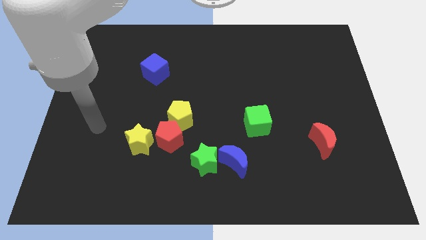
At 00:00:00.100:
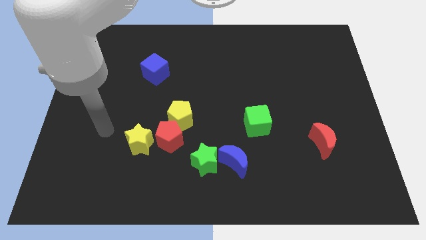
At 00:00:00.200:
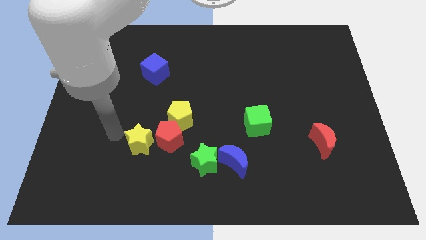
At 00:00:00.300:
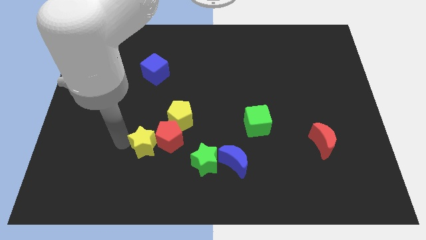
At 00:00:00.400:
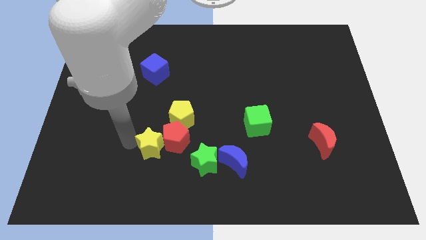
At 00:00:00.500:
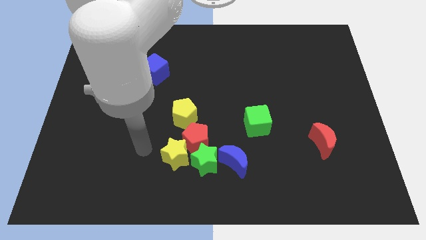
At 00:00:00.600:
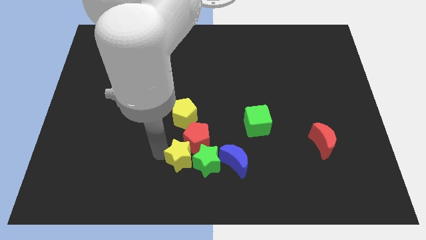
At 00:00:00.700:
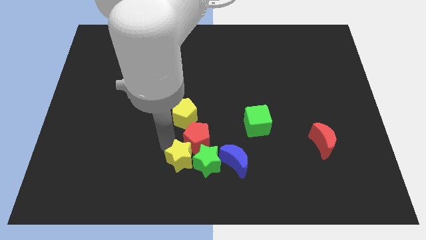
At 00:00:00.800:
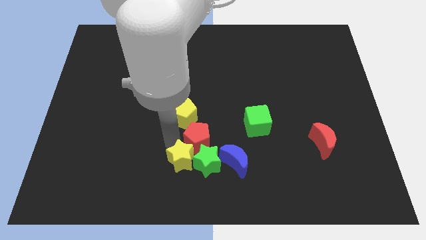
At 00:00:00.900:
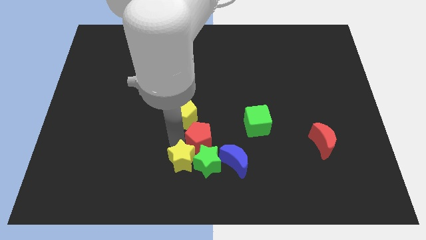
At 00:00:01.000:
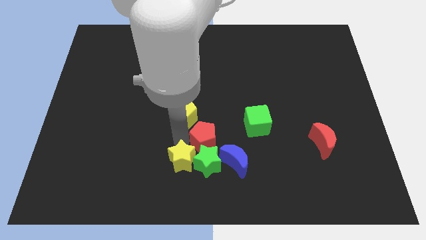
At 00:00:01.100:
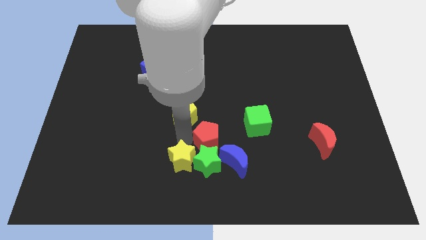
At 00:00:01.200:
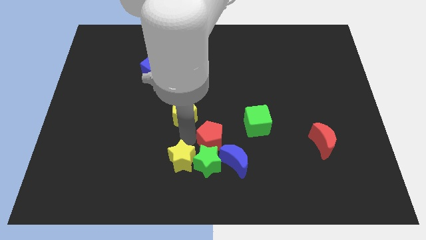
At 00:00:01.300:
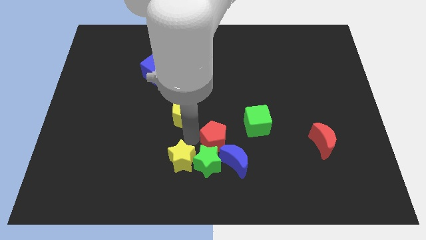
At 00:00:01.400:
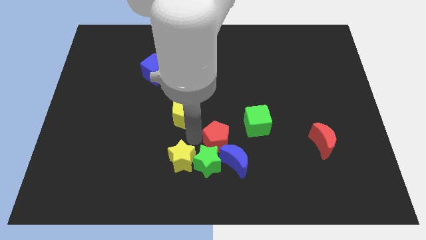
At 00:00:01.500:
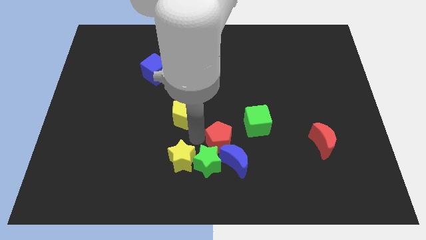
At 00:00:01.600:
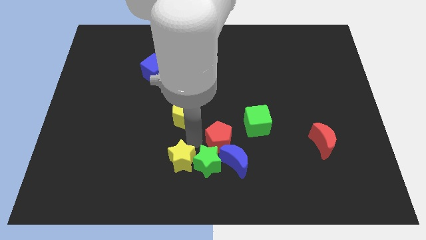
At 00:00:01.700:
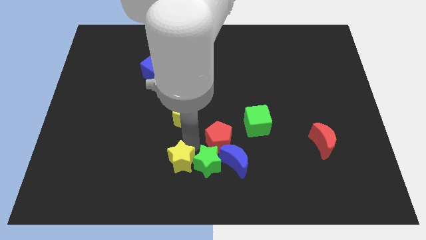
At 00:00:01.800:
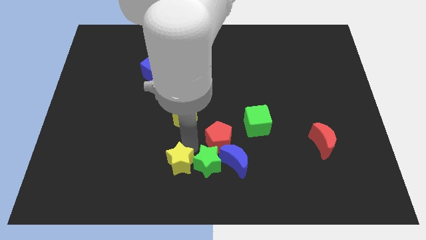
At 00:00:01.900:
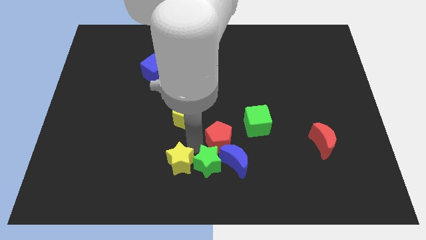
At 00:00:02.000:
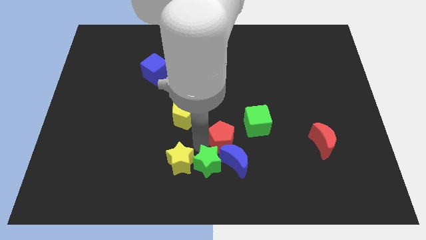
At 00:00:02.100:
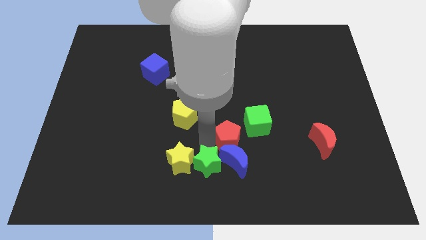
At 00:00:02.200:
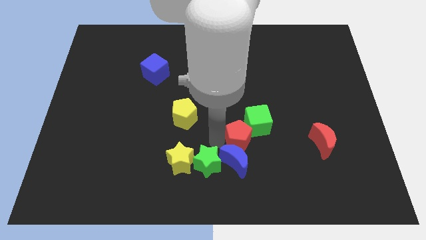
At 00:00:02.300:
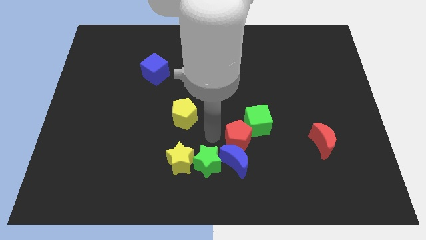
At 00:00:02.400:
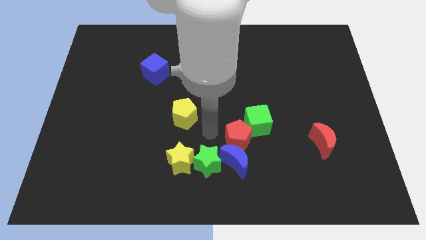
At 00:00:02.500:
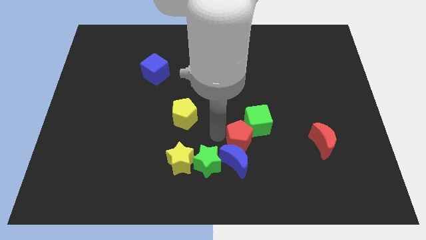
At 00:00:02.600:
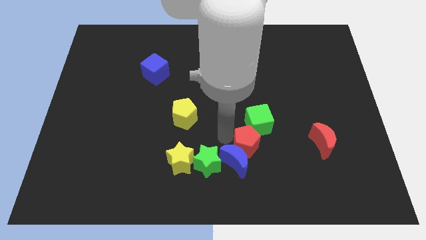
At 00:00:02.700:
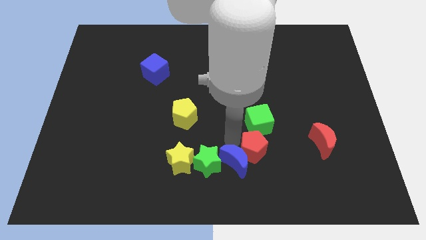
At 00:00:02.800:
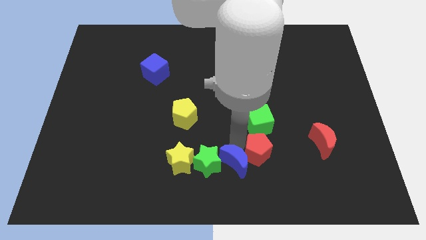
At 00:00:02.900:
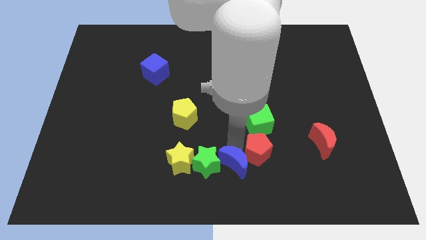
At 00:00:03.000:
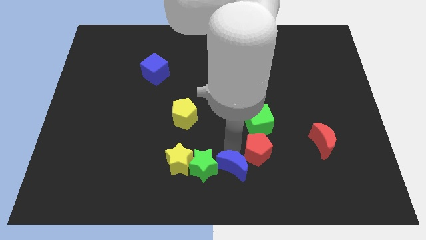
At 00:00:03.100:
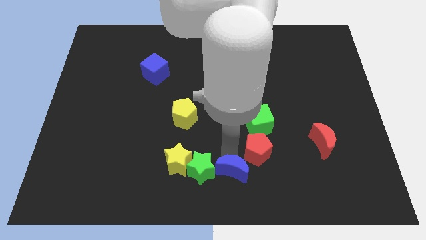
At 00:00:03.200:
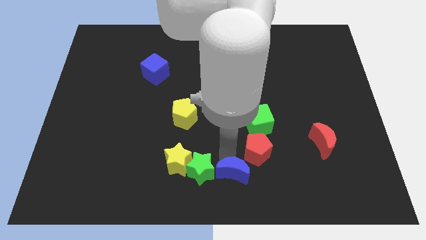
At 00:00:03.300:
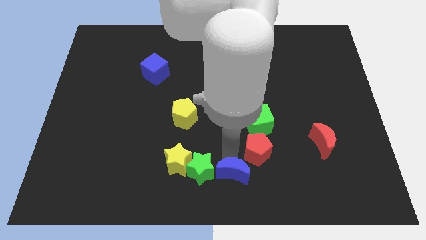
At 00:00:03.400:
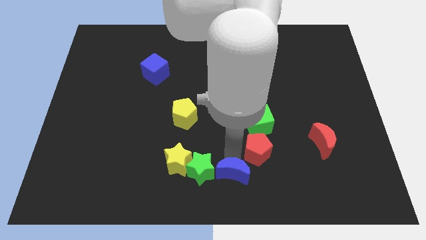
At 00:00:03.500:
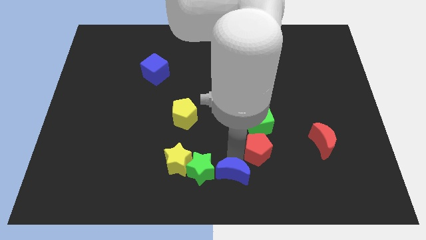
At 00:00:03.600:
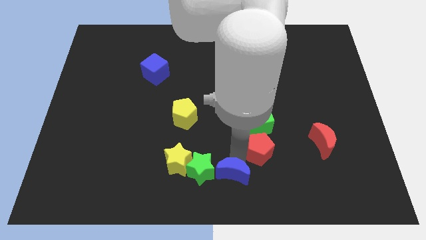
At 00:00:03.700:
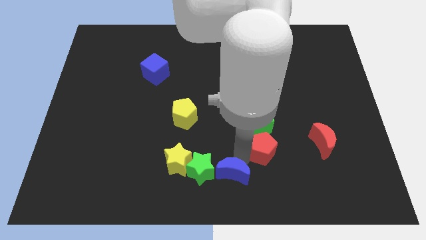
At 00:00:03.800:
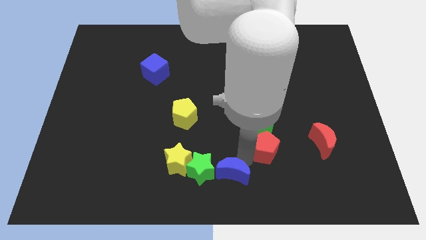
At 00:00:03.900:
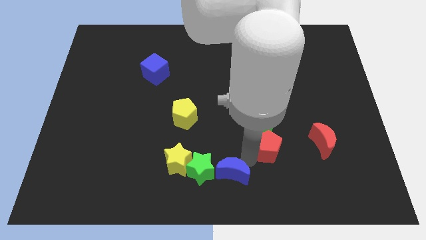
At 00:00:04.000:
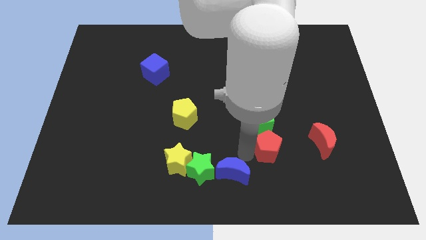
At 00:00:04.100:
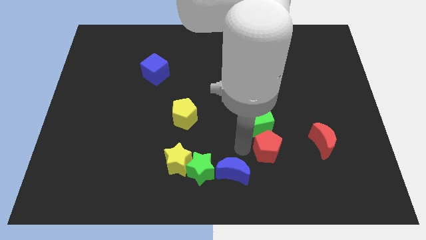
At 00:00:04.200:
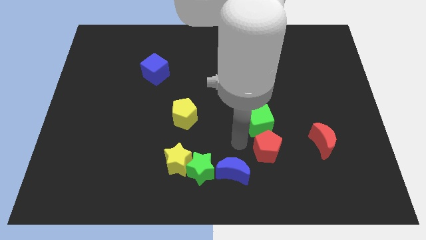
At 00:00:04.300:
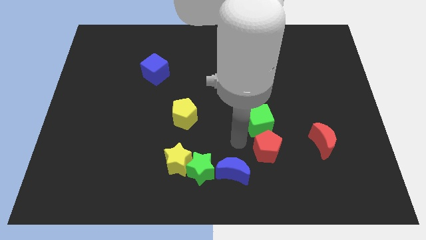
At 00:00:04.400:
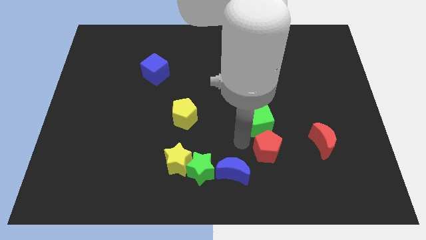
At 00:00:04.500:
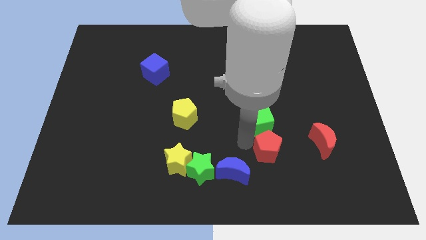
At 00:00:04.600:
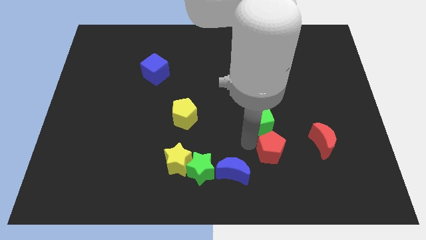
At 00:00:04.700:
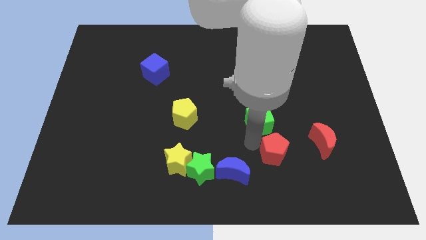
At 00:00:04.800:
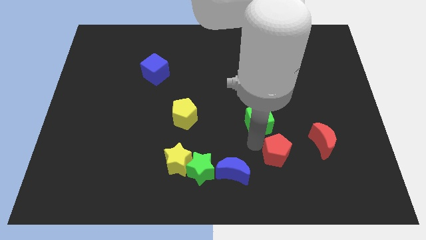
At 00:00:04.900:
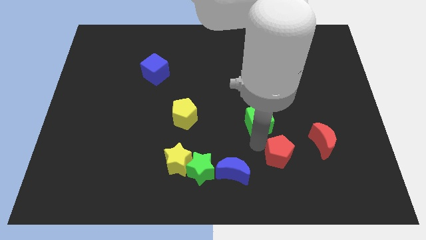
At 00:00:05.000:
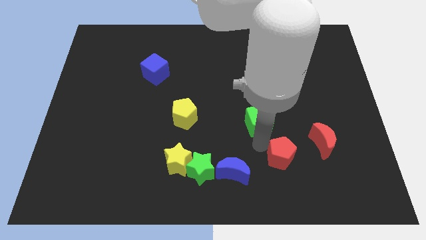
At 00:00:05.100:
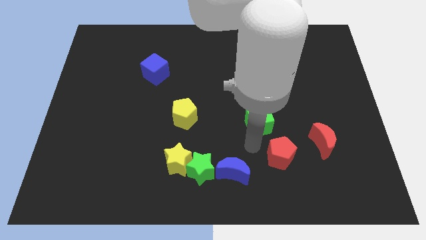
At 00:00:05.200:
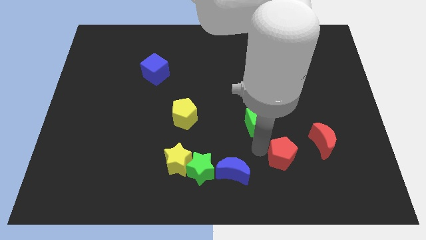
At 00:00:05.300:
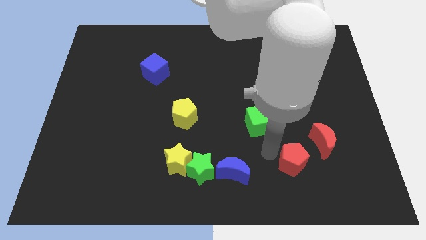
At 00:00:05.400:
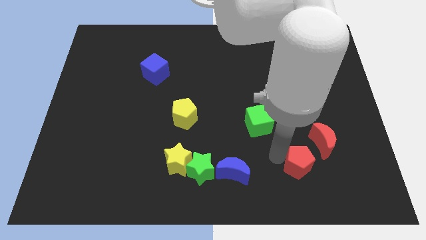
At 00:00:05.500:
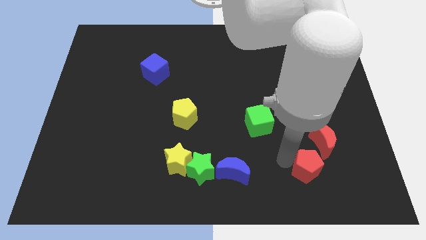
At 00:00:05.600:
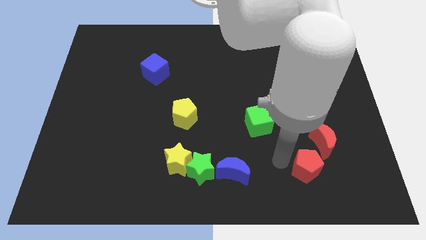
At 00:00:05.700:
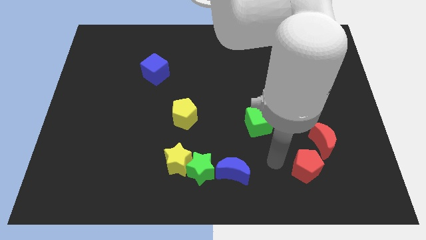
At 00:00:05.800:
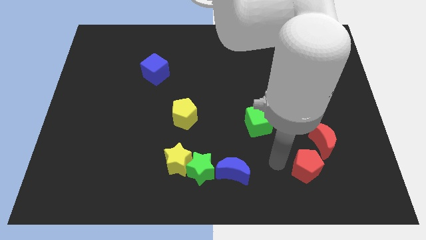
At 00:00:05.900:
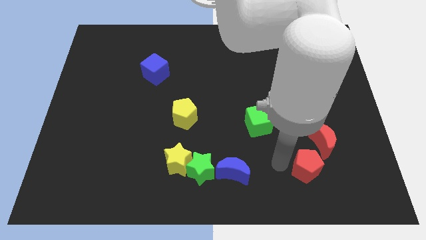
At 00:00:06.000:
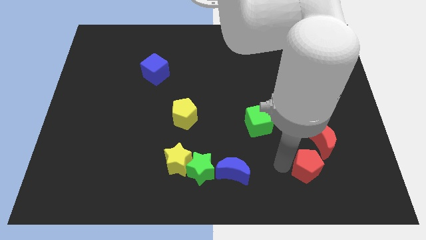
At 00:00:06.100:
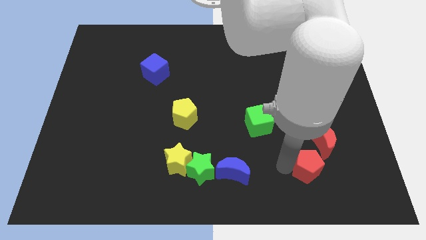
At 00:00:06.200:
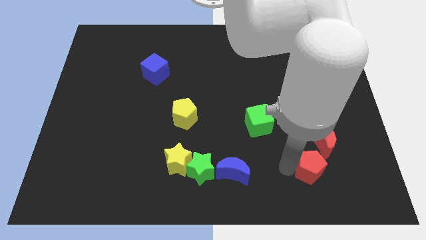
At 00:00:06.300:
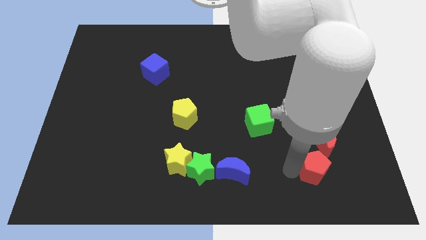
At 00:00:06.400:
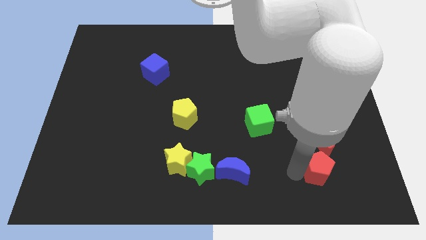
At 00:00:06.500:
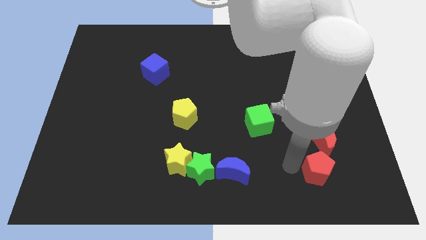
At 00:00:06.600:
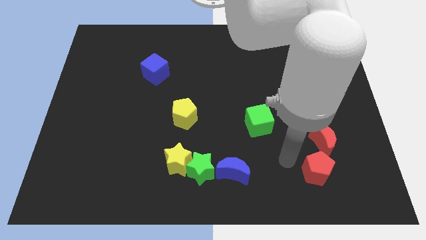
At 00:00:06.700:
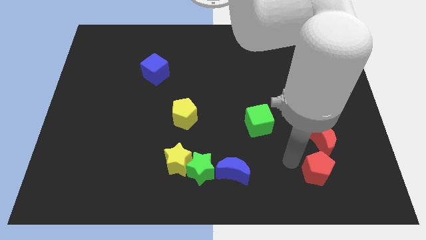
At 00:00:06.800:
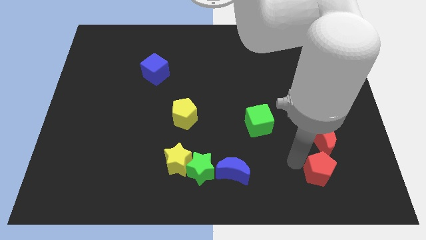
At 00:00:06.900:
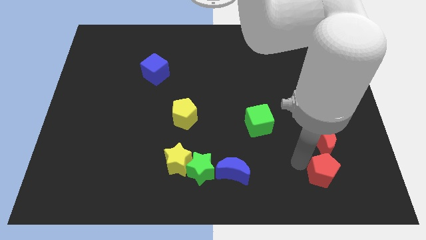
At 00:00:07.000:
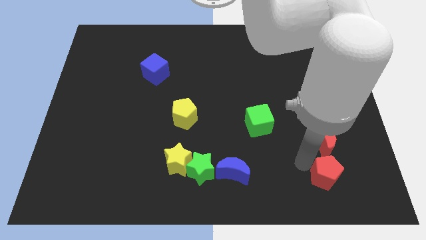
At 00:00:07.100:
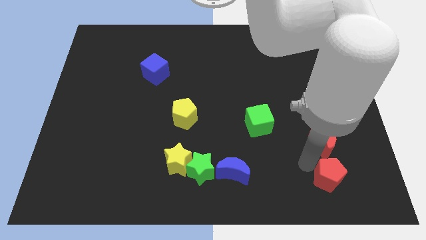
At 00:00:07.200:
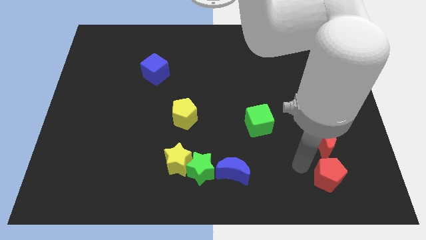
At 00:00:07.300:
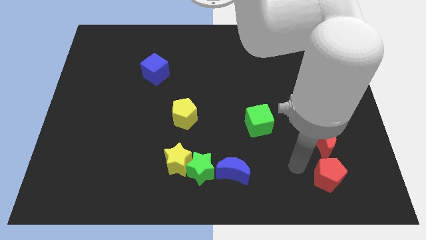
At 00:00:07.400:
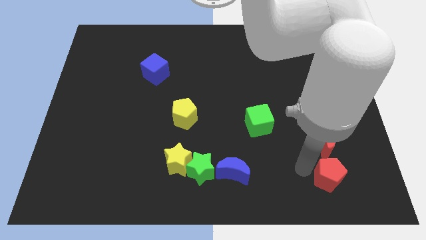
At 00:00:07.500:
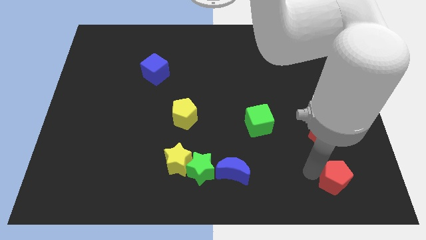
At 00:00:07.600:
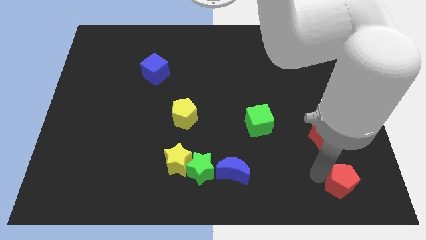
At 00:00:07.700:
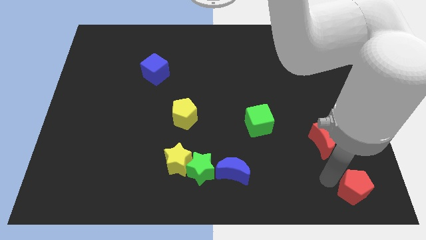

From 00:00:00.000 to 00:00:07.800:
push the red pentagon to the bottom right
